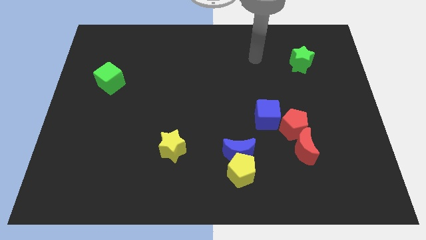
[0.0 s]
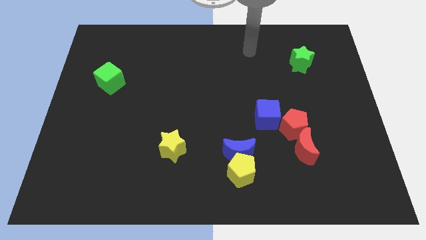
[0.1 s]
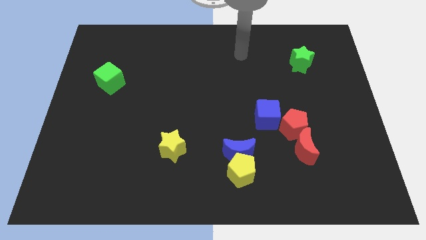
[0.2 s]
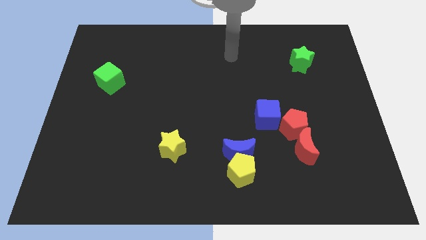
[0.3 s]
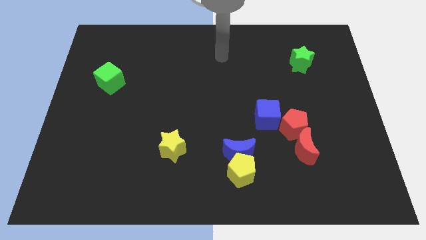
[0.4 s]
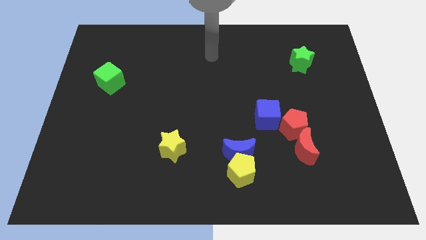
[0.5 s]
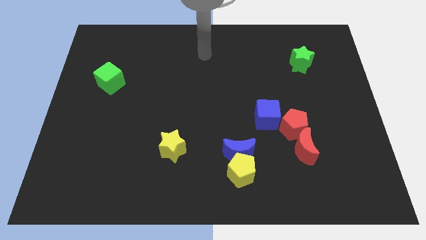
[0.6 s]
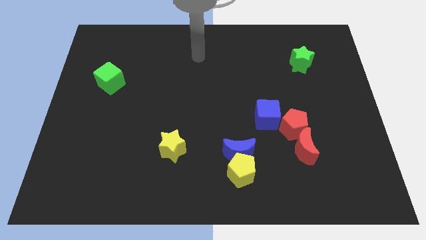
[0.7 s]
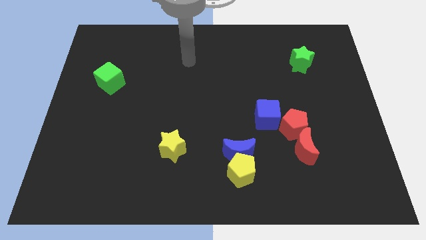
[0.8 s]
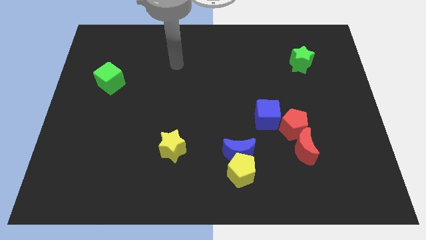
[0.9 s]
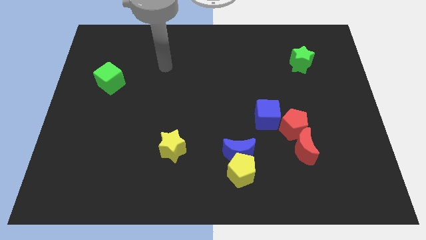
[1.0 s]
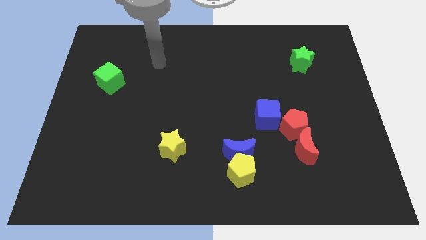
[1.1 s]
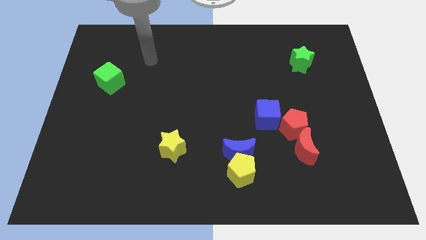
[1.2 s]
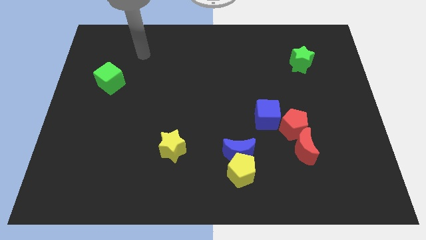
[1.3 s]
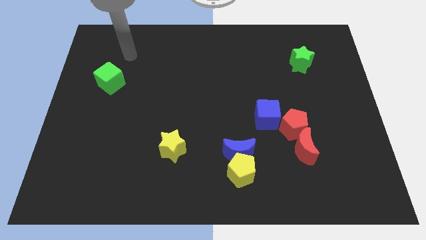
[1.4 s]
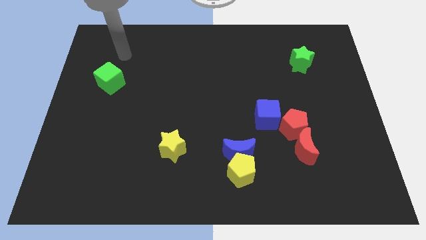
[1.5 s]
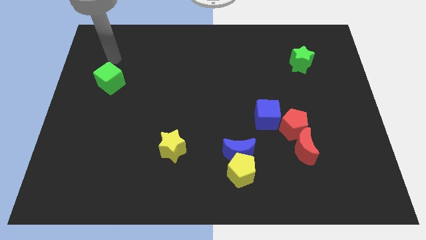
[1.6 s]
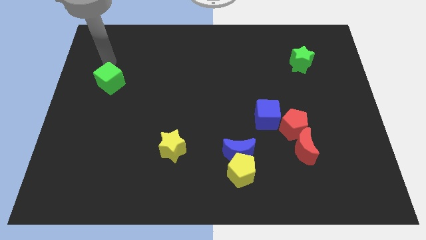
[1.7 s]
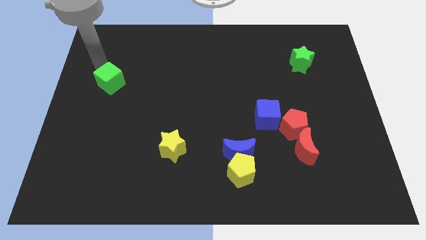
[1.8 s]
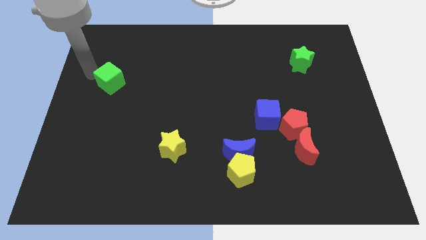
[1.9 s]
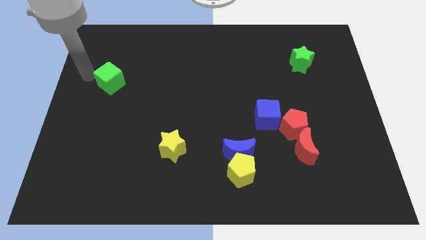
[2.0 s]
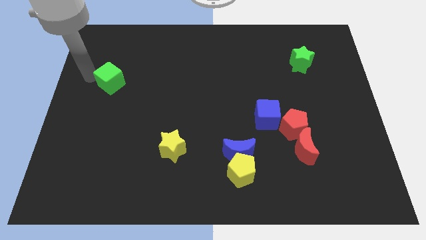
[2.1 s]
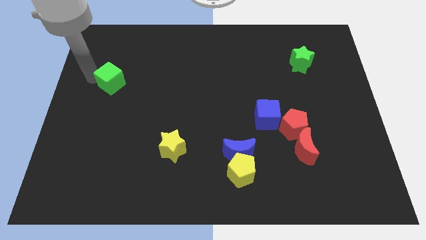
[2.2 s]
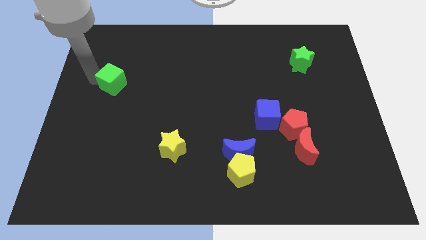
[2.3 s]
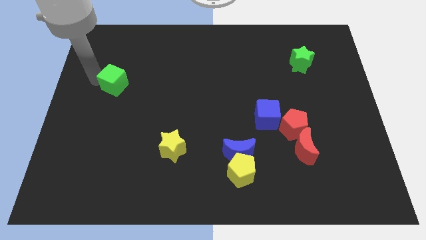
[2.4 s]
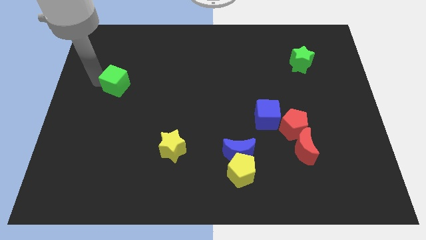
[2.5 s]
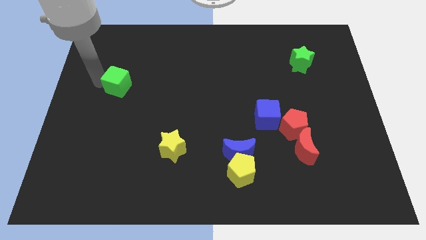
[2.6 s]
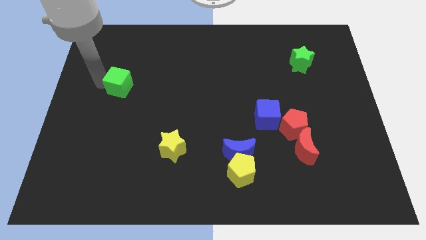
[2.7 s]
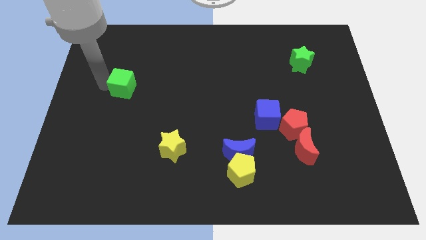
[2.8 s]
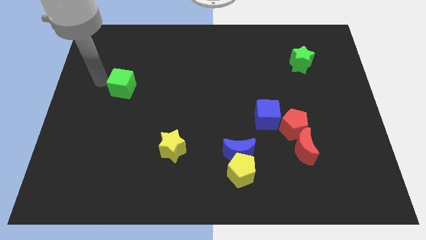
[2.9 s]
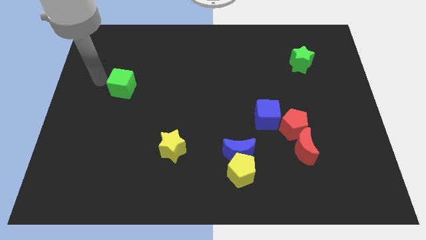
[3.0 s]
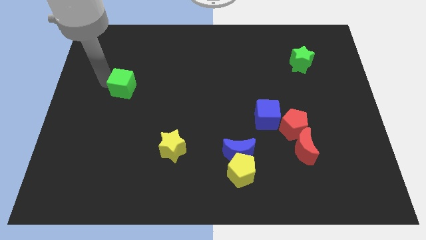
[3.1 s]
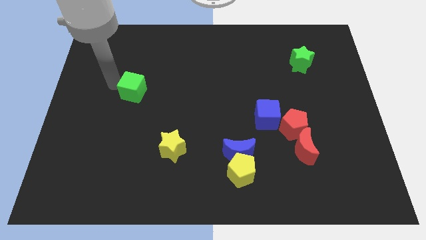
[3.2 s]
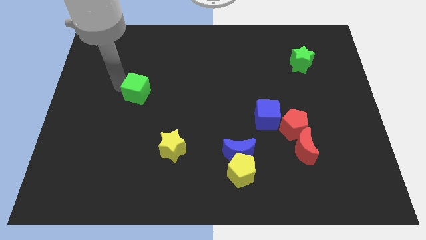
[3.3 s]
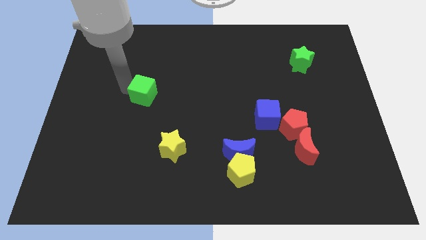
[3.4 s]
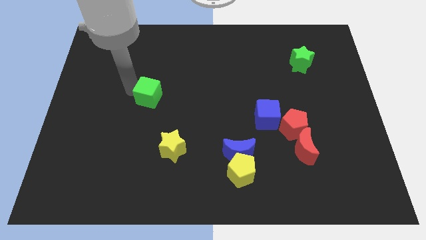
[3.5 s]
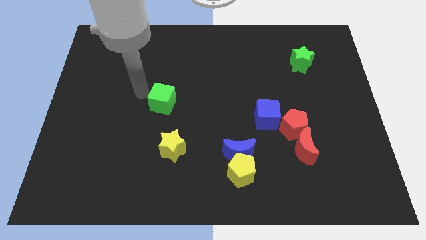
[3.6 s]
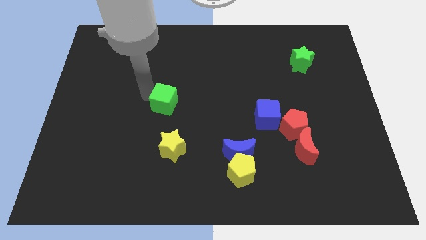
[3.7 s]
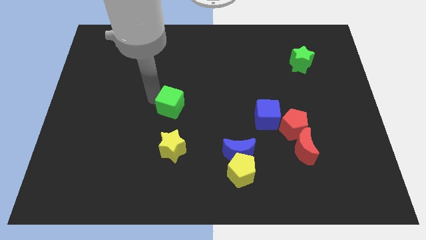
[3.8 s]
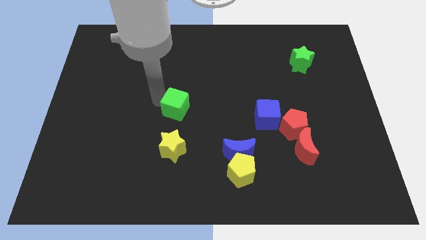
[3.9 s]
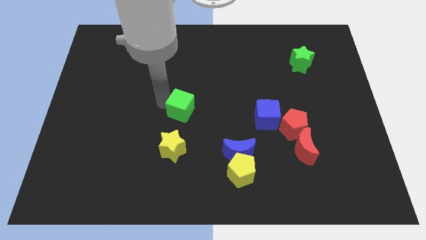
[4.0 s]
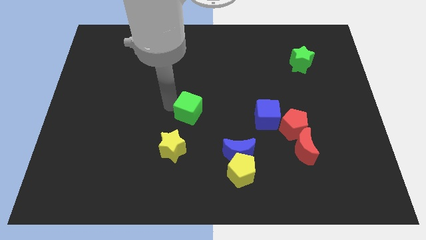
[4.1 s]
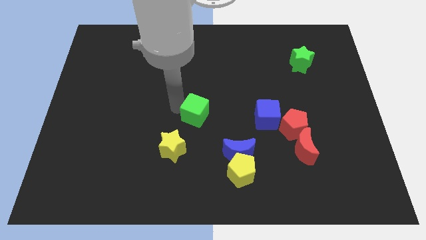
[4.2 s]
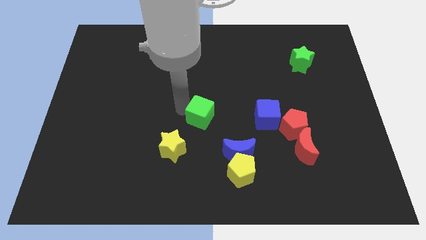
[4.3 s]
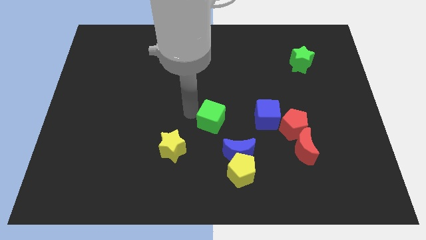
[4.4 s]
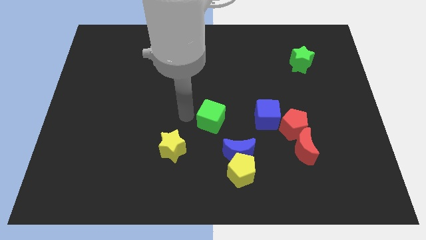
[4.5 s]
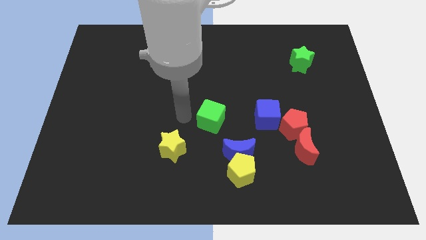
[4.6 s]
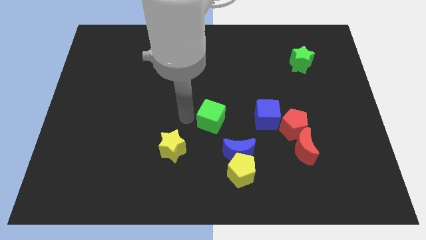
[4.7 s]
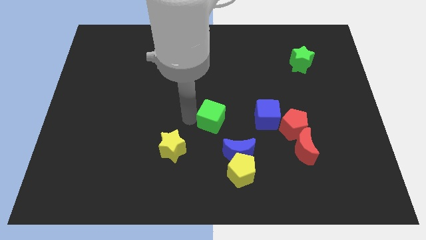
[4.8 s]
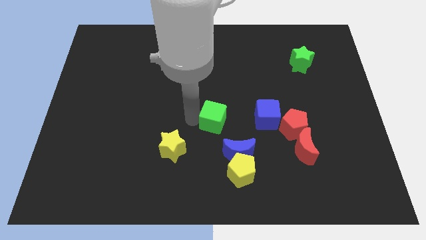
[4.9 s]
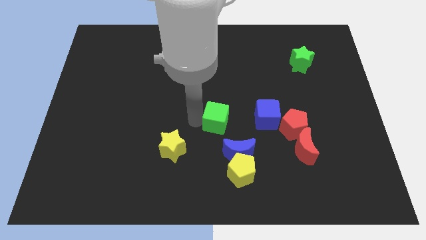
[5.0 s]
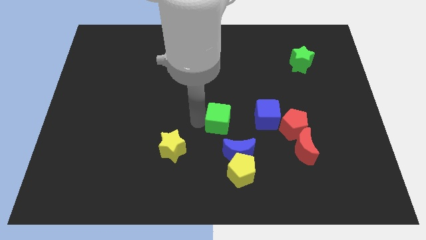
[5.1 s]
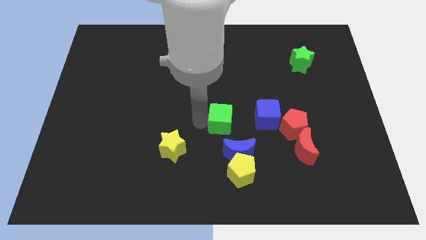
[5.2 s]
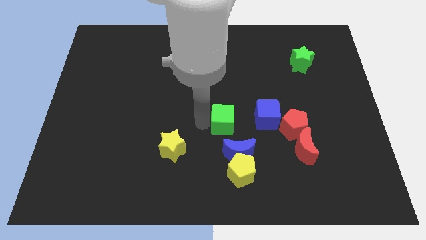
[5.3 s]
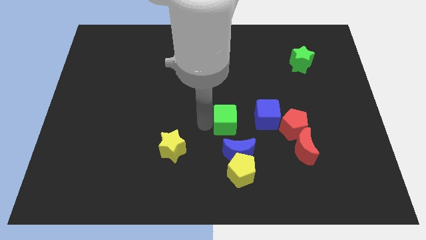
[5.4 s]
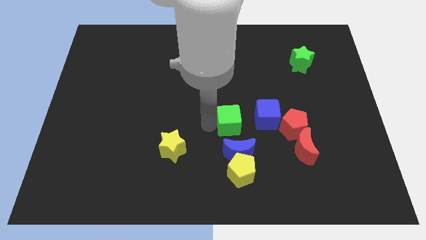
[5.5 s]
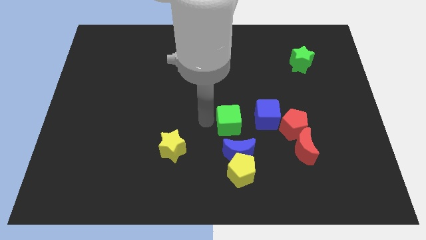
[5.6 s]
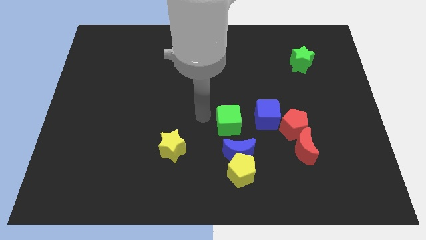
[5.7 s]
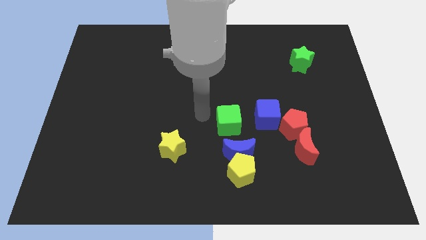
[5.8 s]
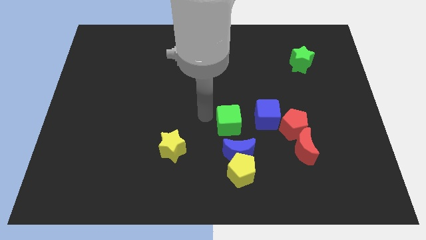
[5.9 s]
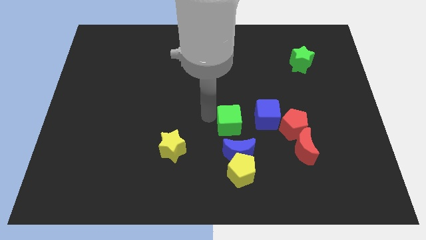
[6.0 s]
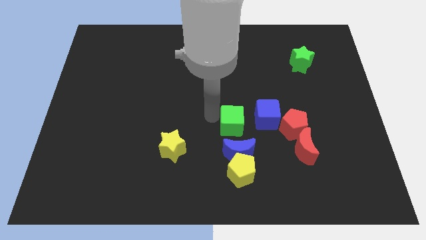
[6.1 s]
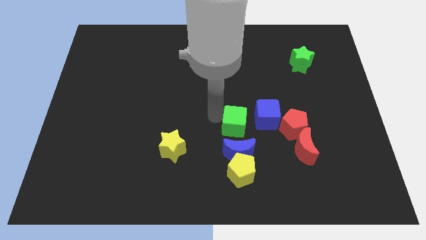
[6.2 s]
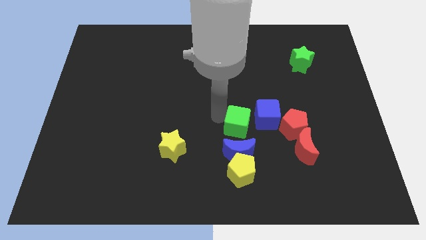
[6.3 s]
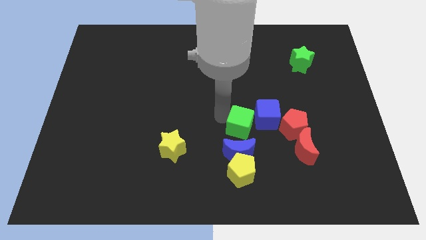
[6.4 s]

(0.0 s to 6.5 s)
push the green cube diagonally up and to the right of the blue moon

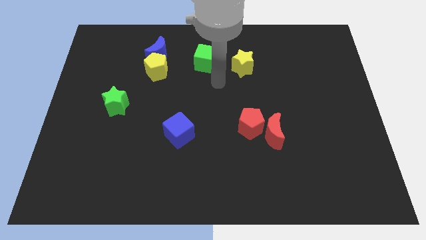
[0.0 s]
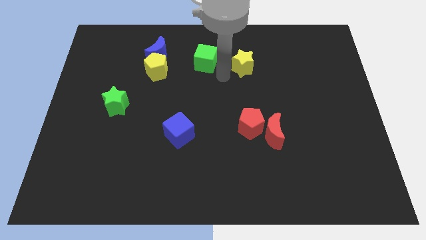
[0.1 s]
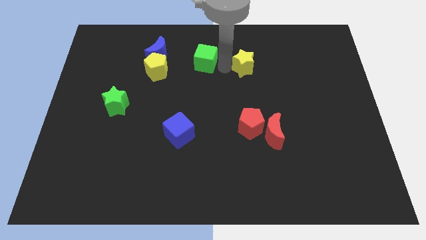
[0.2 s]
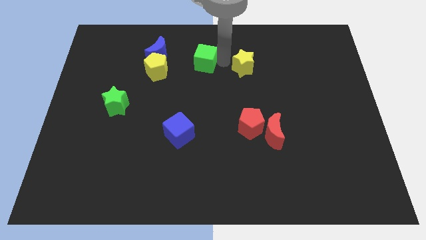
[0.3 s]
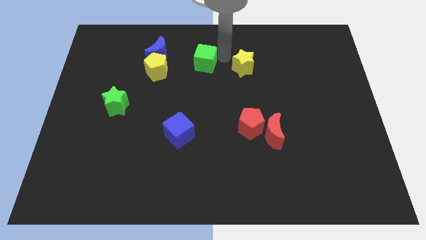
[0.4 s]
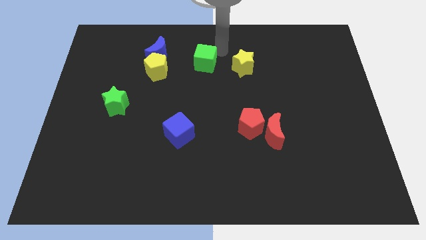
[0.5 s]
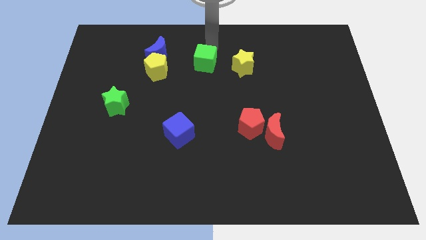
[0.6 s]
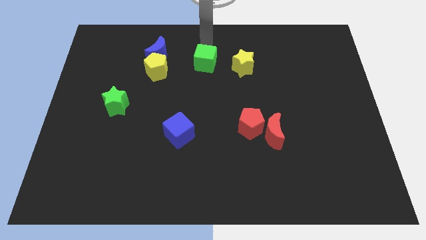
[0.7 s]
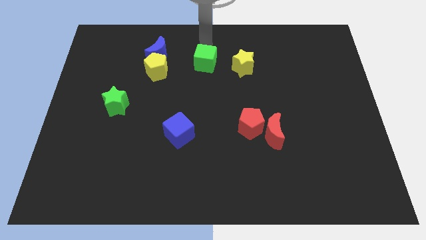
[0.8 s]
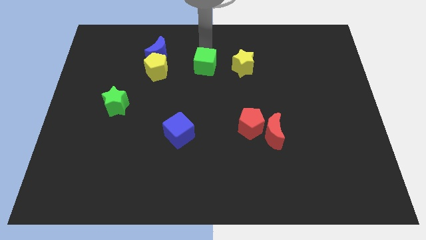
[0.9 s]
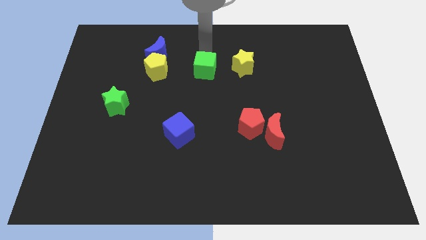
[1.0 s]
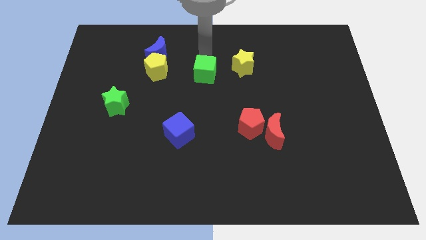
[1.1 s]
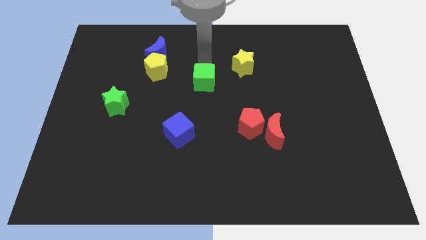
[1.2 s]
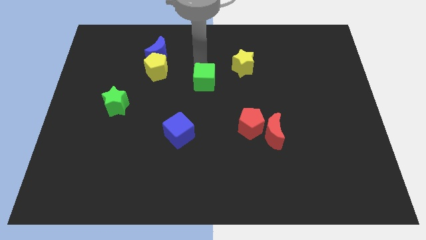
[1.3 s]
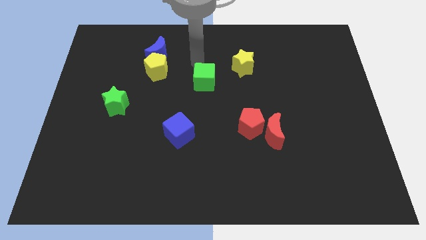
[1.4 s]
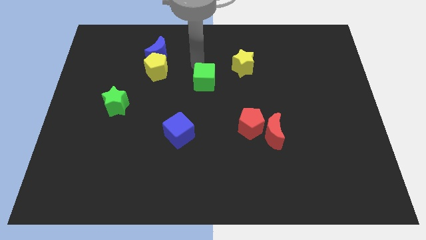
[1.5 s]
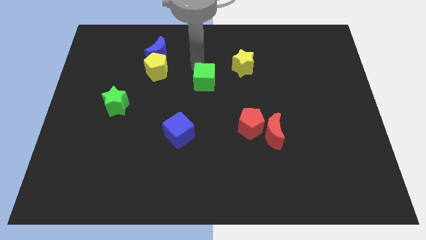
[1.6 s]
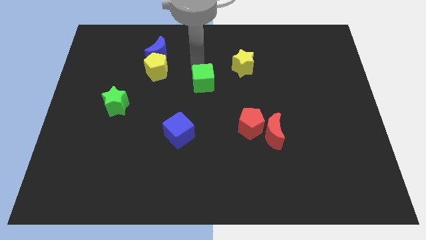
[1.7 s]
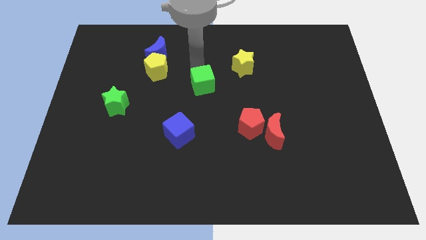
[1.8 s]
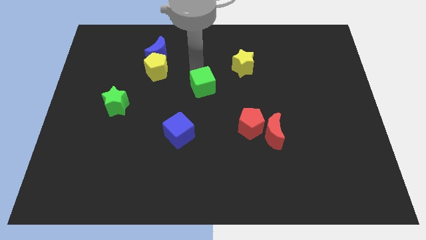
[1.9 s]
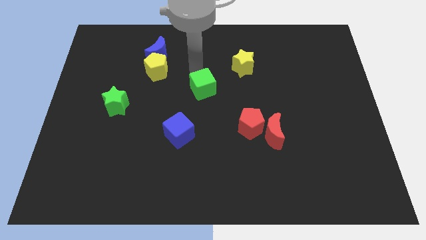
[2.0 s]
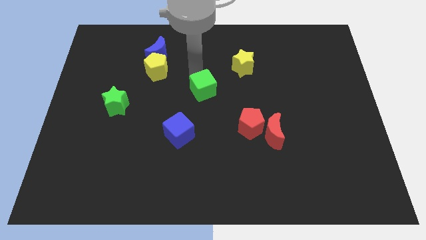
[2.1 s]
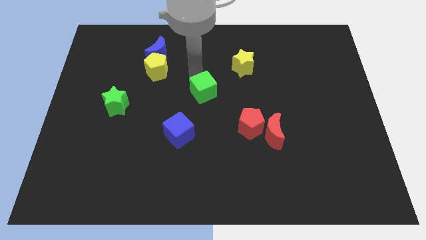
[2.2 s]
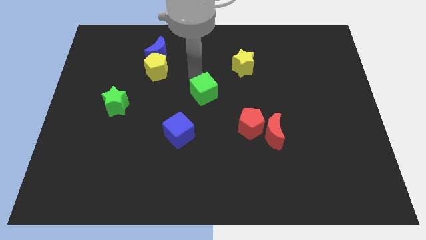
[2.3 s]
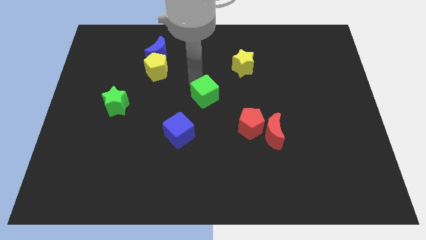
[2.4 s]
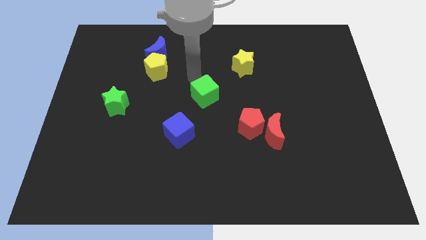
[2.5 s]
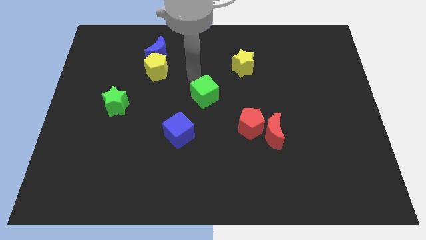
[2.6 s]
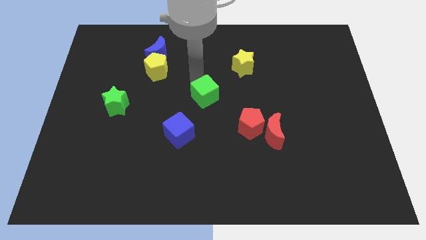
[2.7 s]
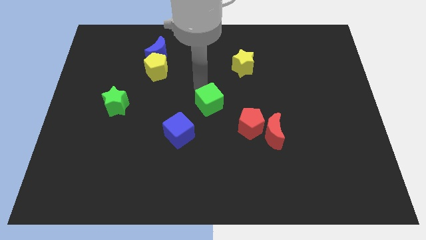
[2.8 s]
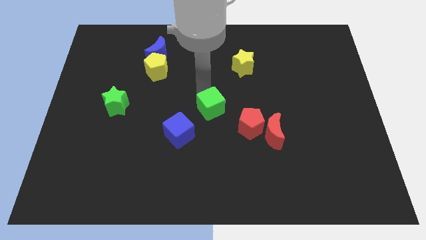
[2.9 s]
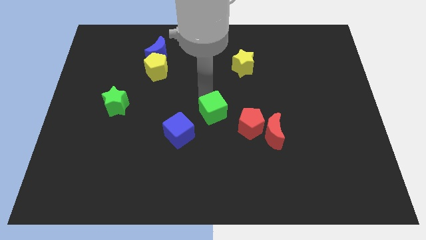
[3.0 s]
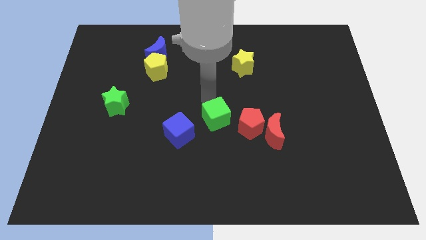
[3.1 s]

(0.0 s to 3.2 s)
slide the green cube to the right of the blue cube
